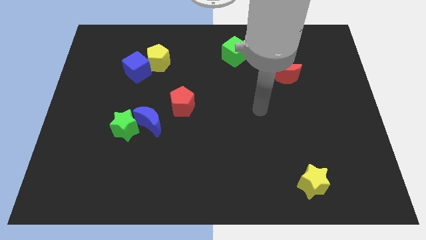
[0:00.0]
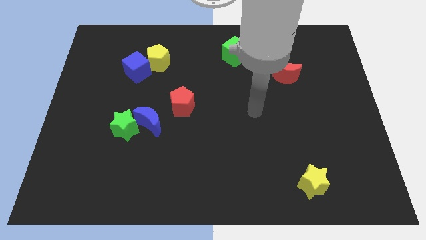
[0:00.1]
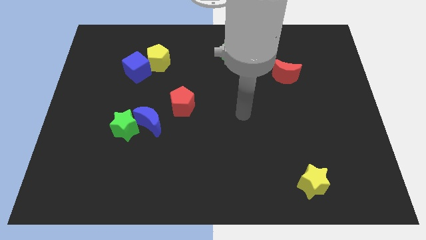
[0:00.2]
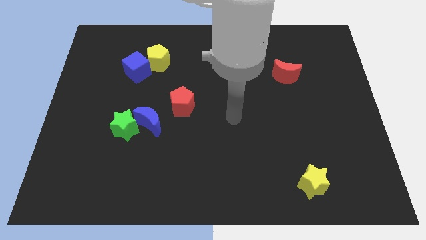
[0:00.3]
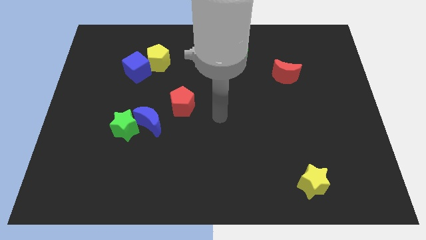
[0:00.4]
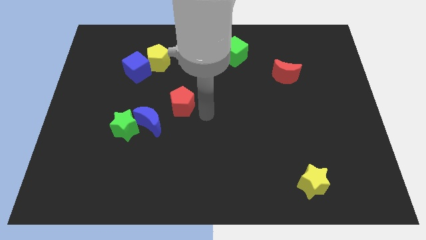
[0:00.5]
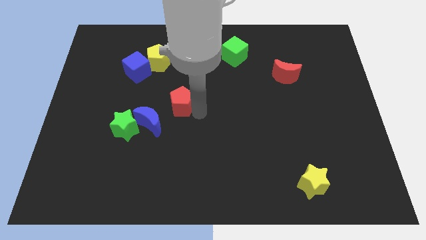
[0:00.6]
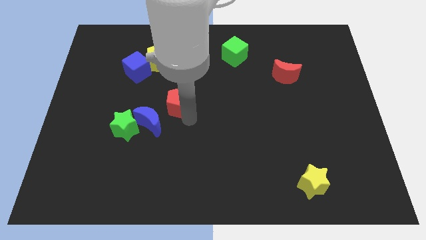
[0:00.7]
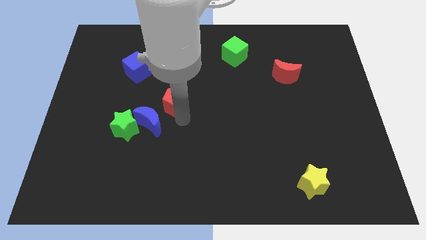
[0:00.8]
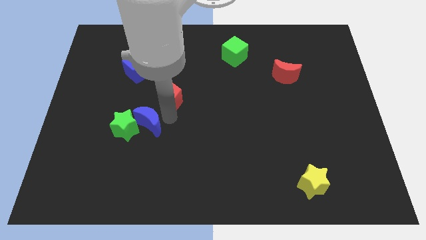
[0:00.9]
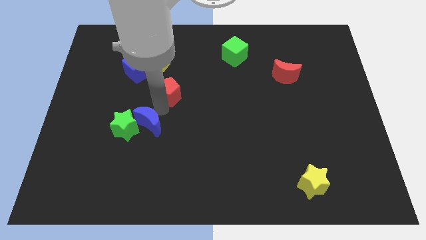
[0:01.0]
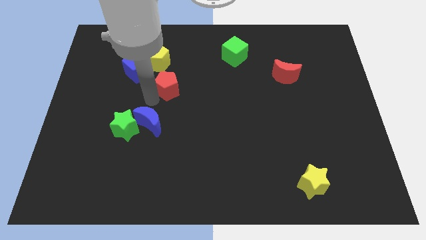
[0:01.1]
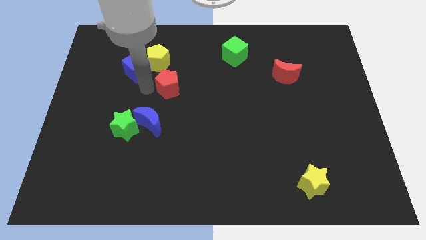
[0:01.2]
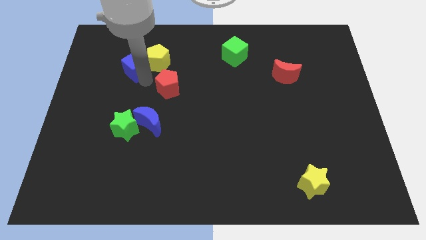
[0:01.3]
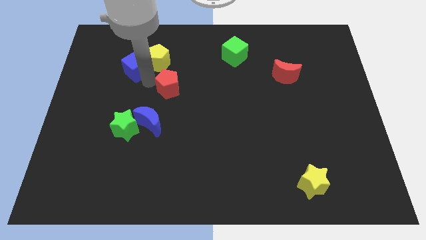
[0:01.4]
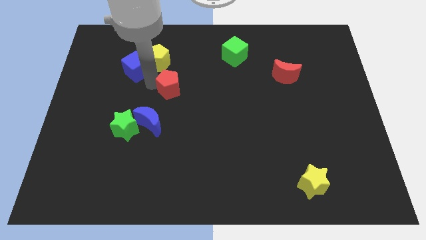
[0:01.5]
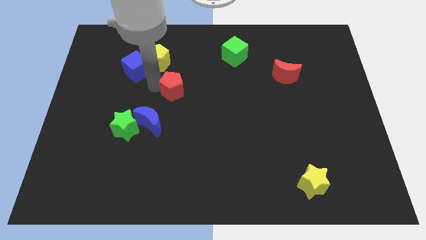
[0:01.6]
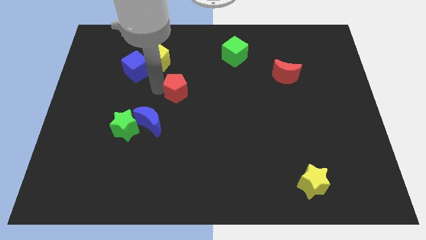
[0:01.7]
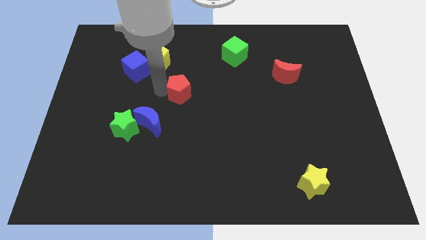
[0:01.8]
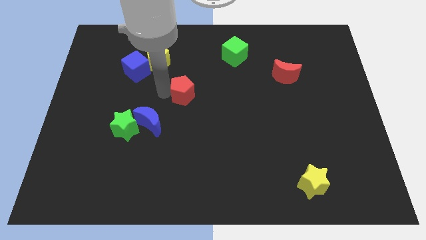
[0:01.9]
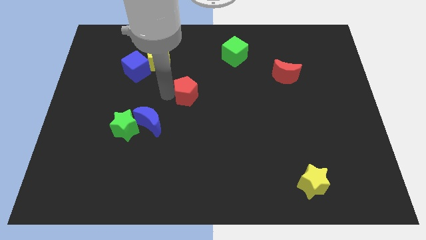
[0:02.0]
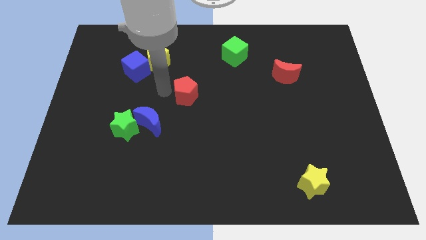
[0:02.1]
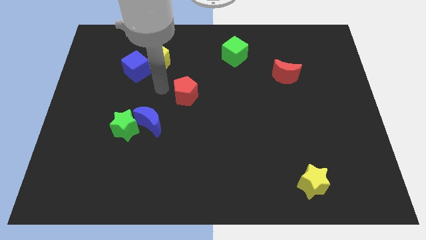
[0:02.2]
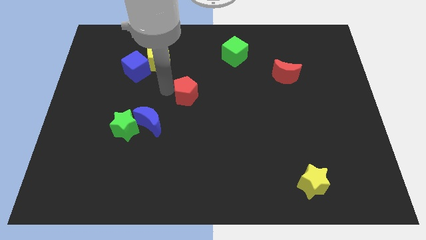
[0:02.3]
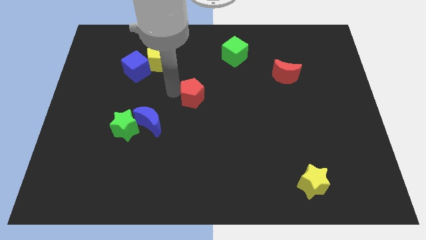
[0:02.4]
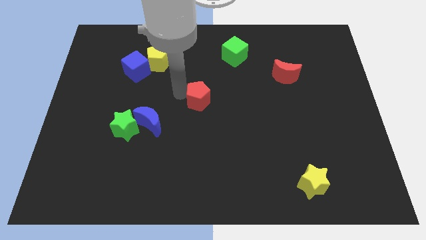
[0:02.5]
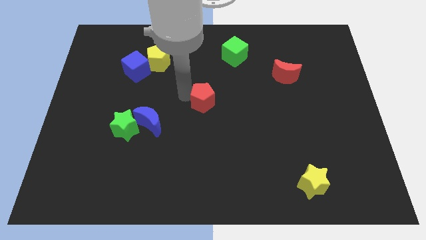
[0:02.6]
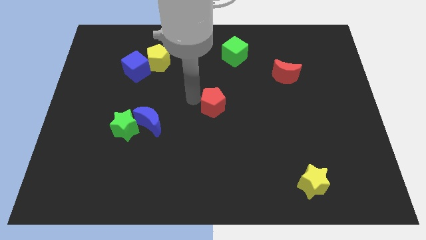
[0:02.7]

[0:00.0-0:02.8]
slide the red pentagon a bit right

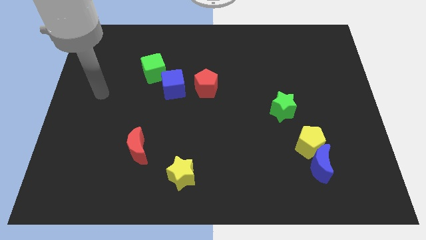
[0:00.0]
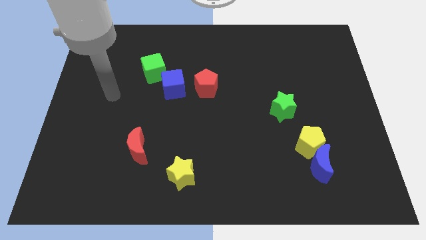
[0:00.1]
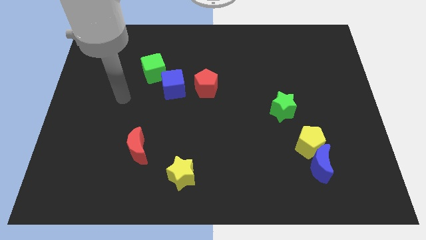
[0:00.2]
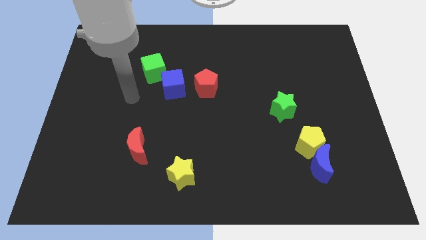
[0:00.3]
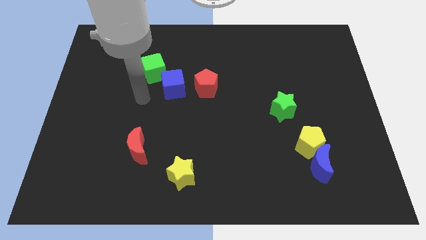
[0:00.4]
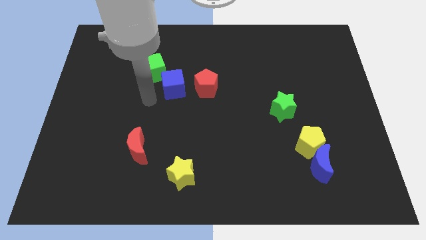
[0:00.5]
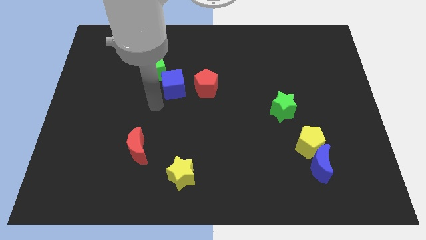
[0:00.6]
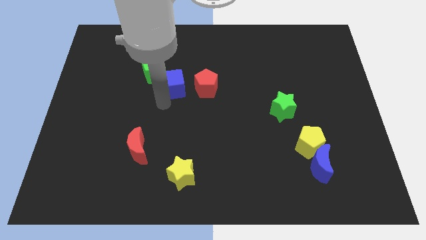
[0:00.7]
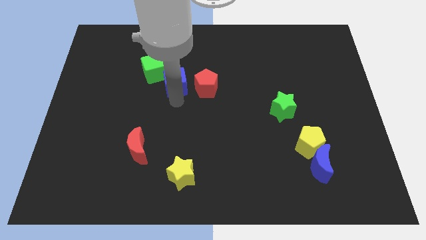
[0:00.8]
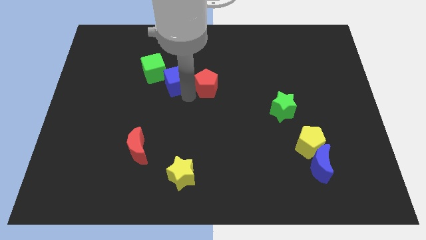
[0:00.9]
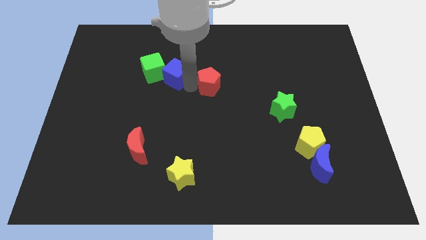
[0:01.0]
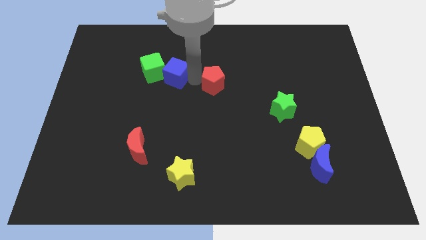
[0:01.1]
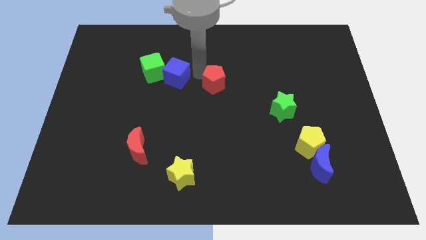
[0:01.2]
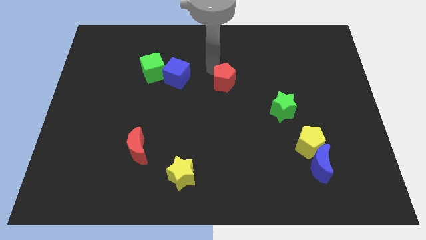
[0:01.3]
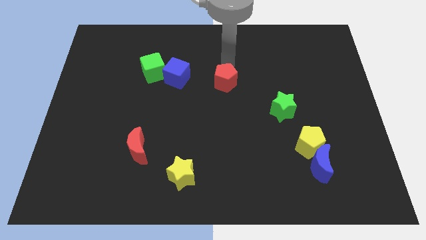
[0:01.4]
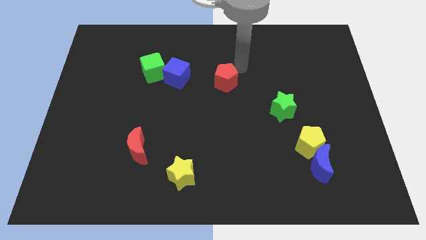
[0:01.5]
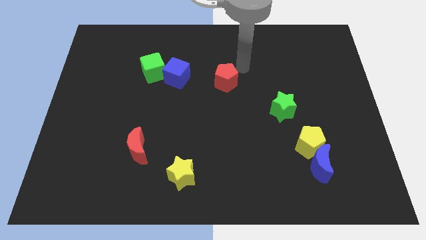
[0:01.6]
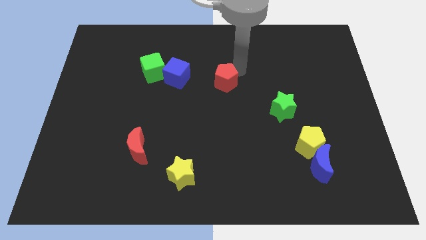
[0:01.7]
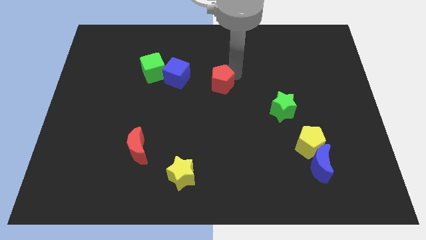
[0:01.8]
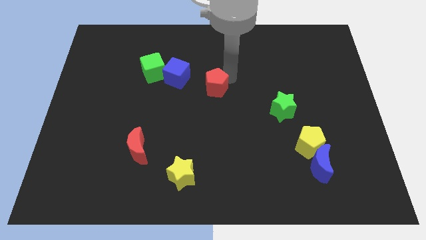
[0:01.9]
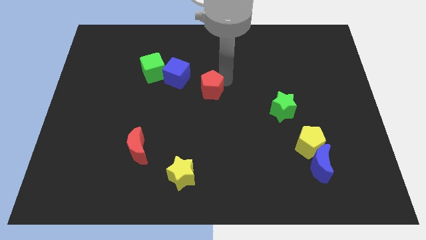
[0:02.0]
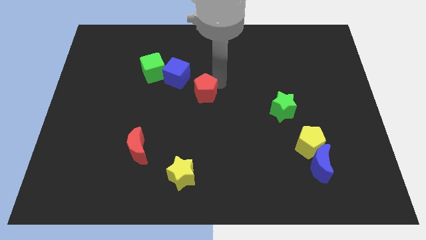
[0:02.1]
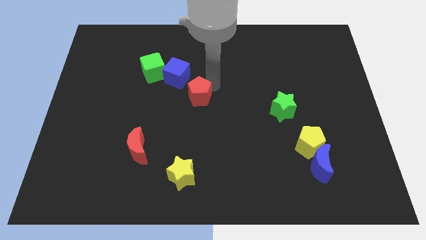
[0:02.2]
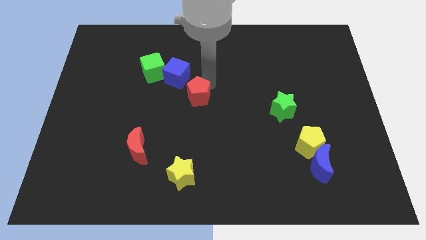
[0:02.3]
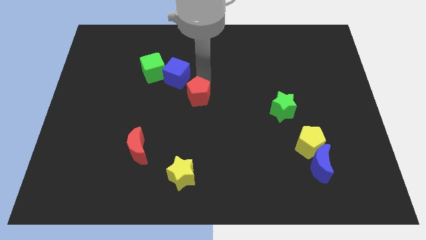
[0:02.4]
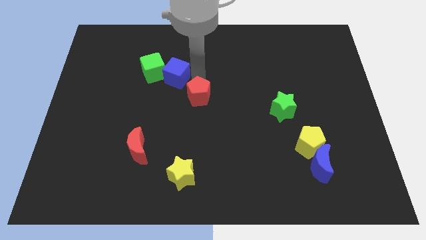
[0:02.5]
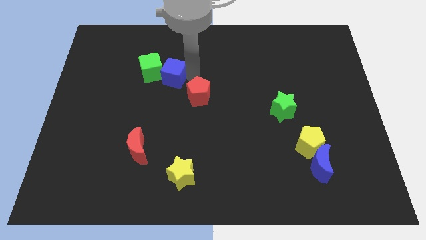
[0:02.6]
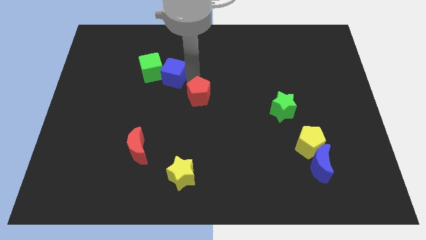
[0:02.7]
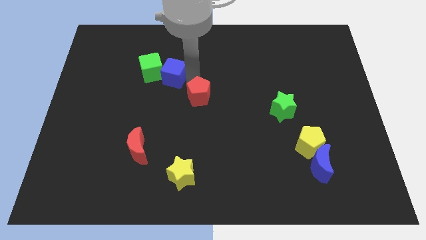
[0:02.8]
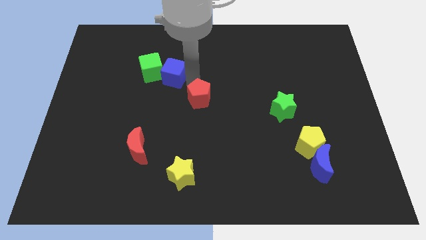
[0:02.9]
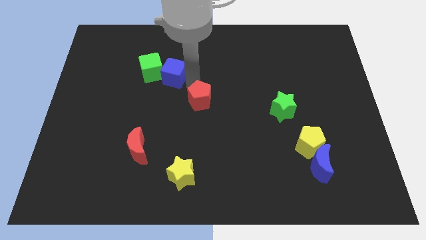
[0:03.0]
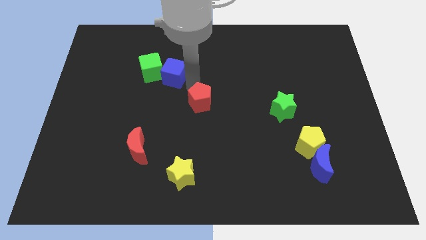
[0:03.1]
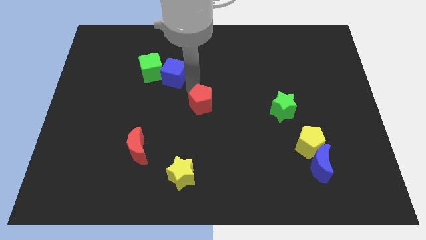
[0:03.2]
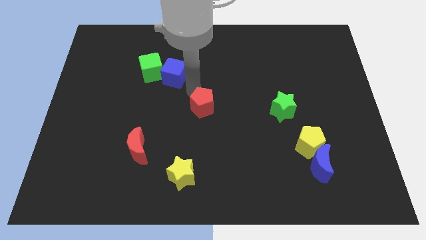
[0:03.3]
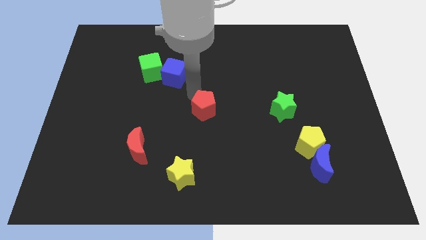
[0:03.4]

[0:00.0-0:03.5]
slightly slide the red pentagon down

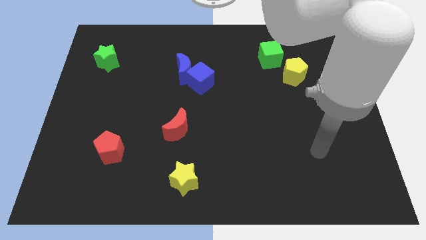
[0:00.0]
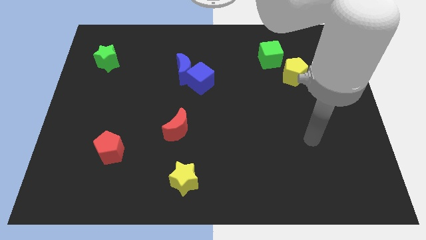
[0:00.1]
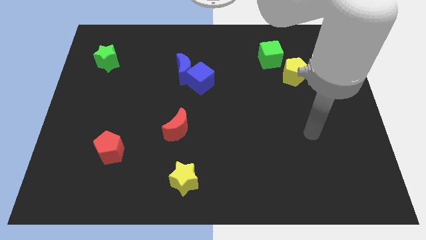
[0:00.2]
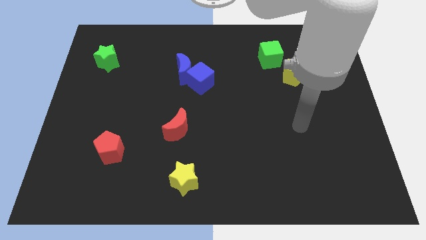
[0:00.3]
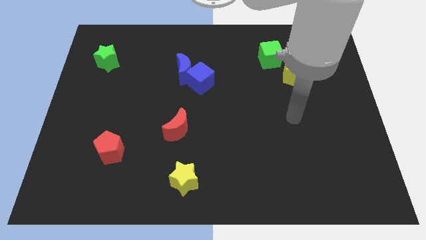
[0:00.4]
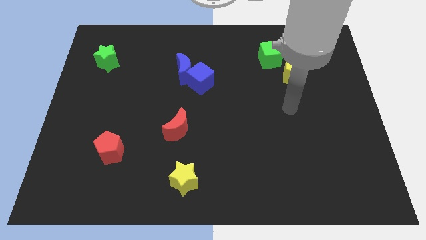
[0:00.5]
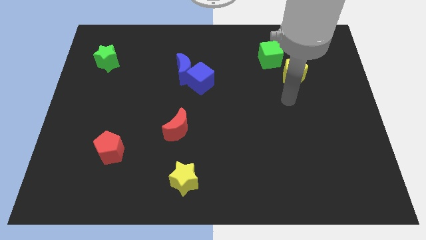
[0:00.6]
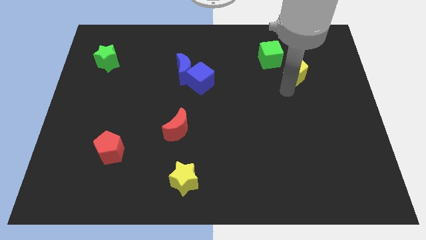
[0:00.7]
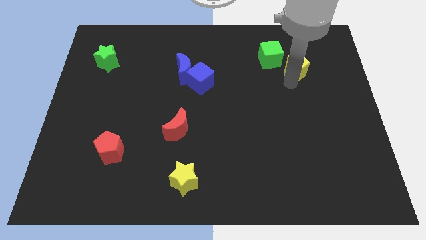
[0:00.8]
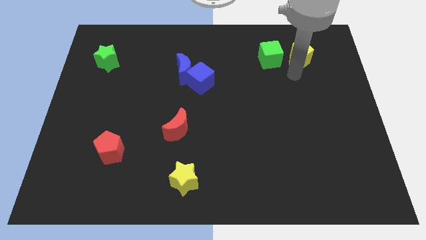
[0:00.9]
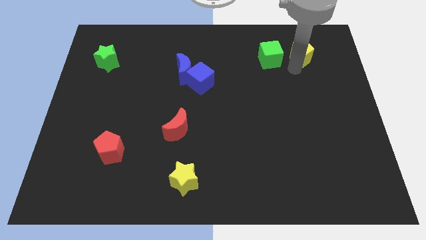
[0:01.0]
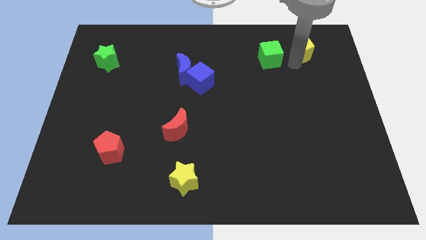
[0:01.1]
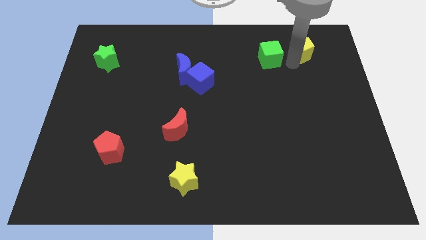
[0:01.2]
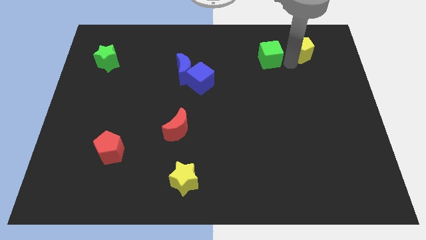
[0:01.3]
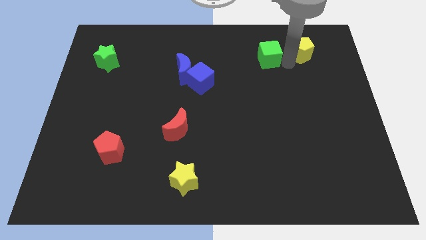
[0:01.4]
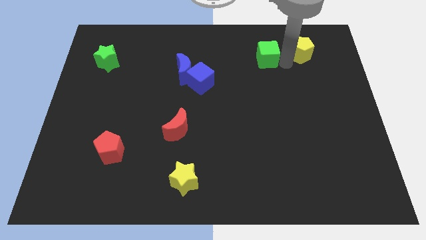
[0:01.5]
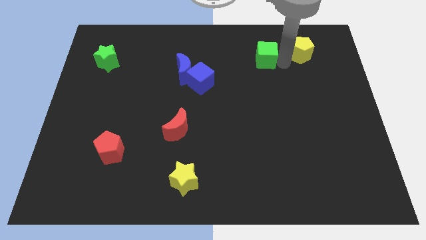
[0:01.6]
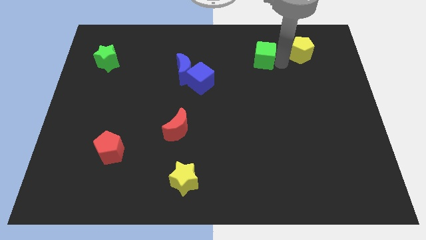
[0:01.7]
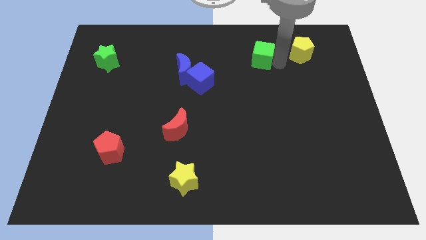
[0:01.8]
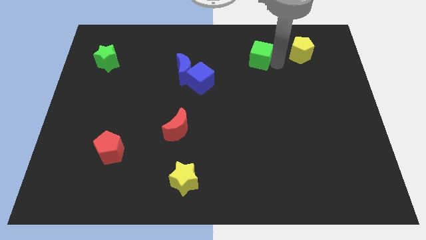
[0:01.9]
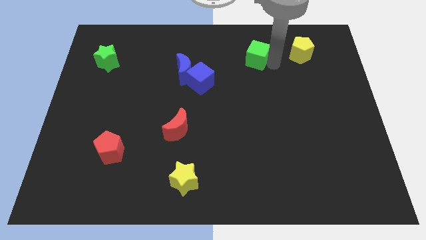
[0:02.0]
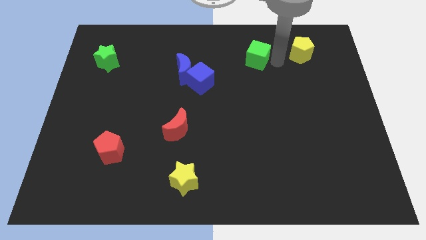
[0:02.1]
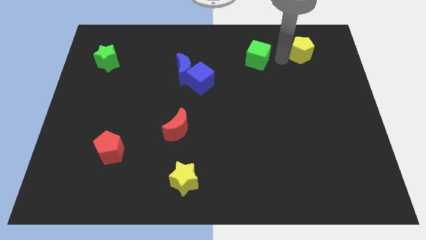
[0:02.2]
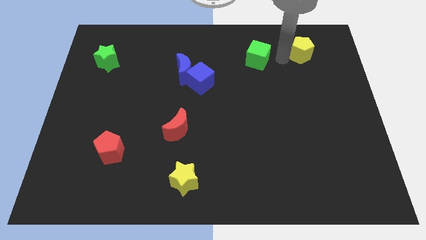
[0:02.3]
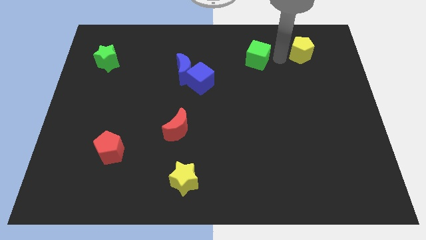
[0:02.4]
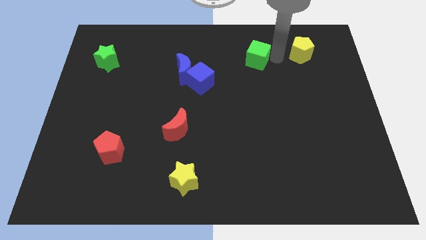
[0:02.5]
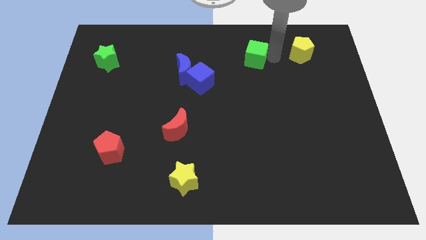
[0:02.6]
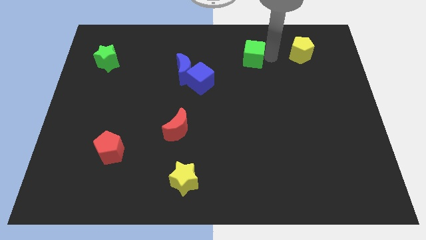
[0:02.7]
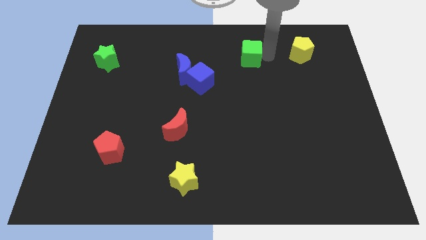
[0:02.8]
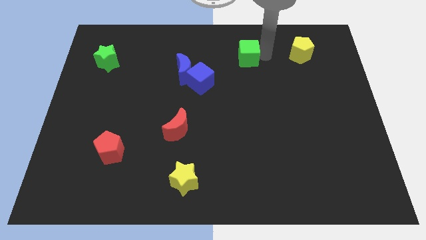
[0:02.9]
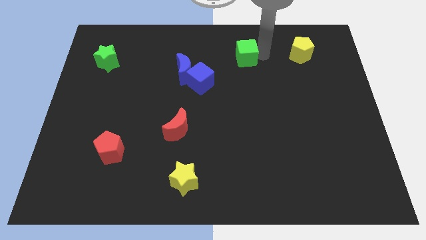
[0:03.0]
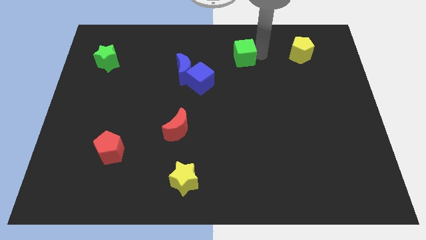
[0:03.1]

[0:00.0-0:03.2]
slightly slide the green cube to the left
